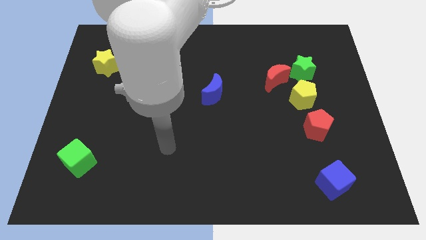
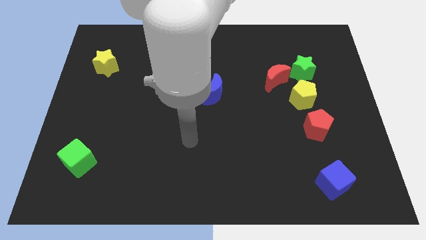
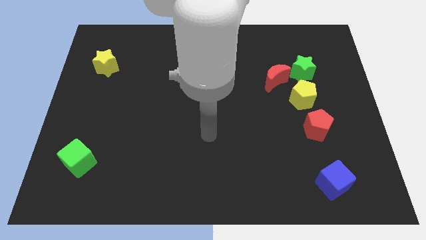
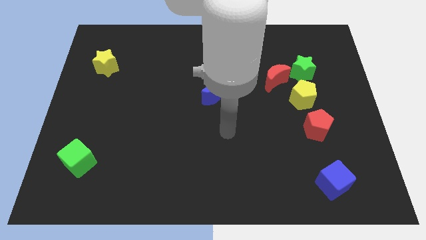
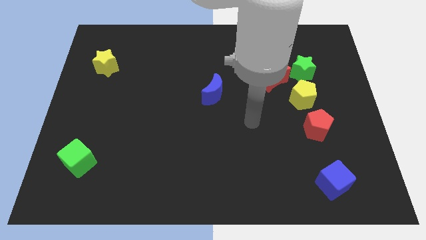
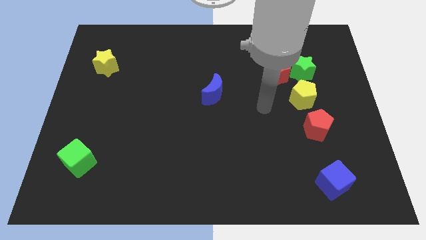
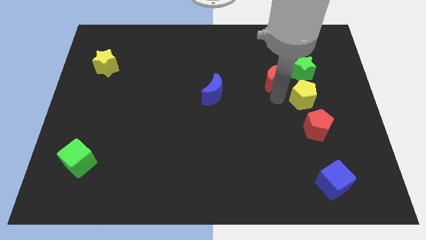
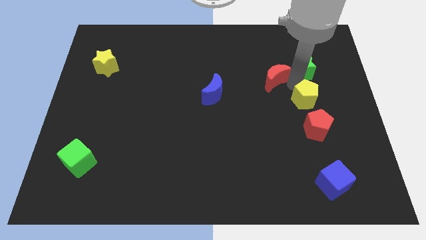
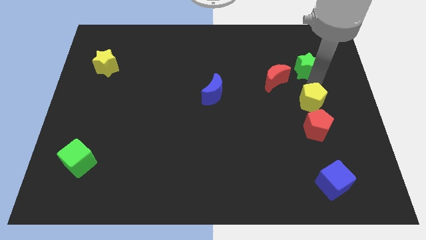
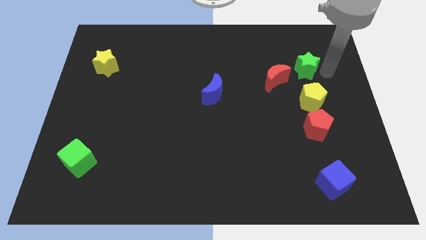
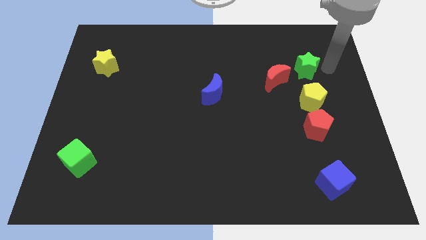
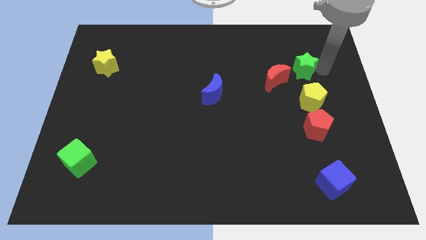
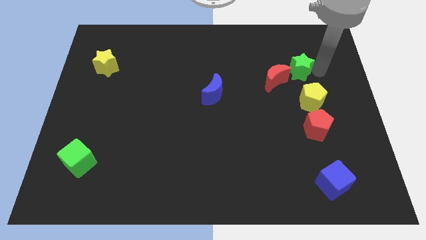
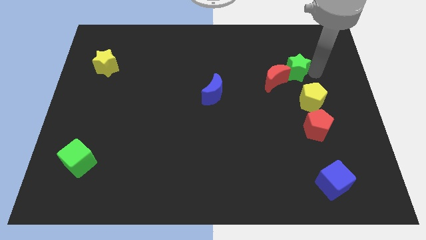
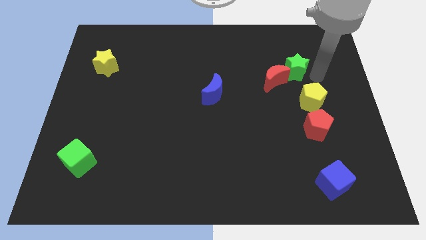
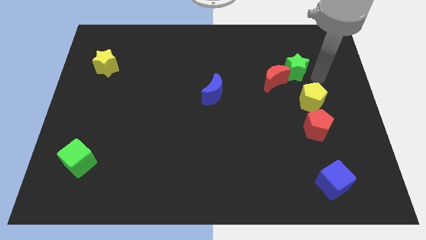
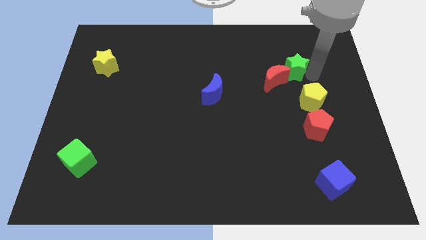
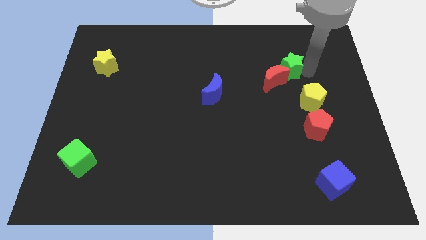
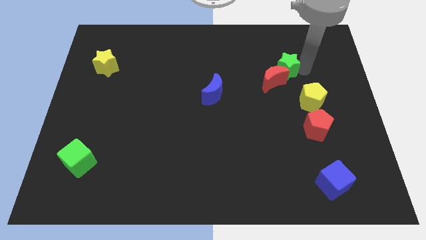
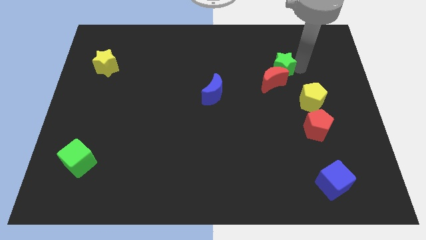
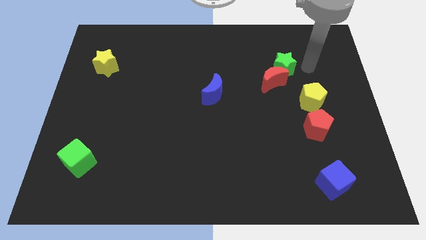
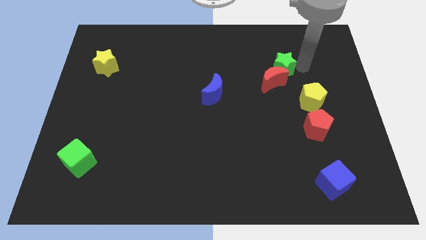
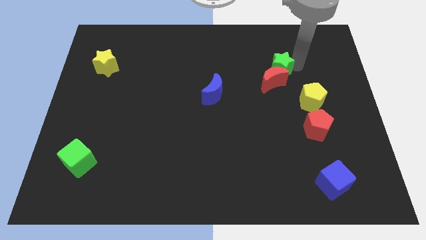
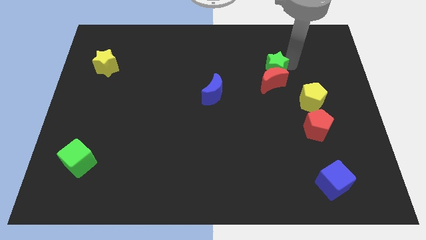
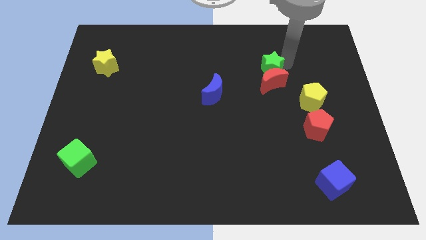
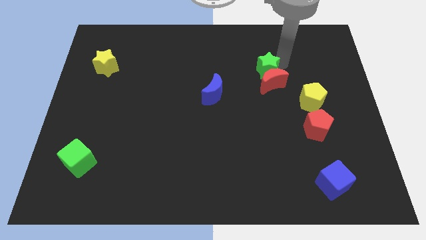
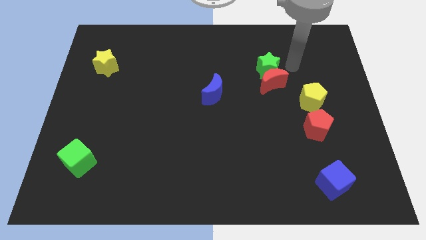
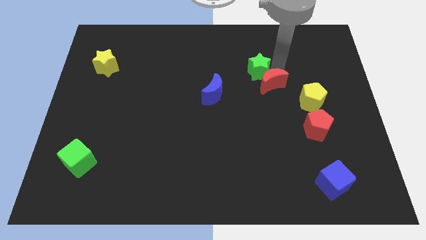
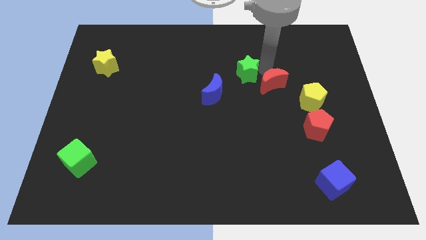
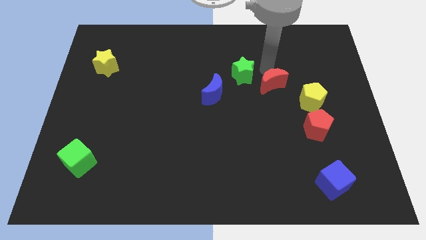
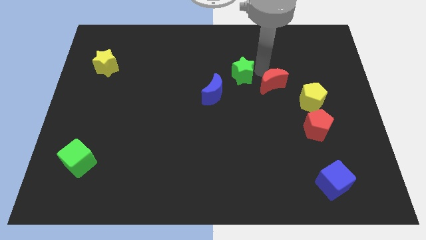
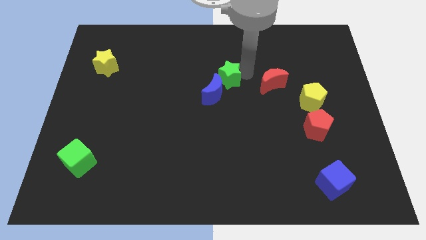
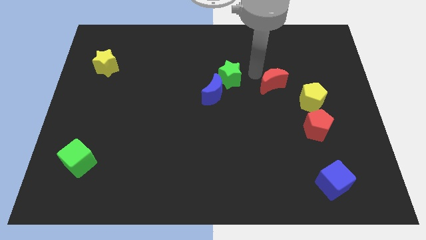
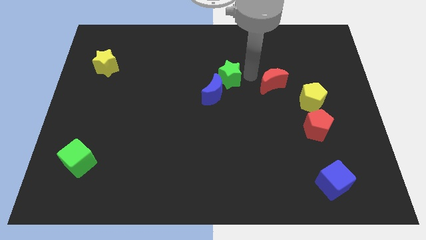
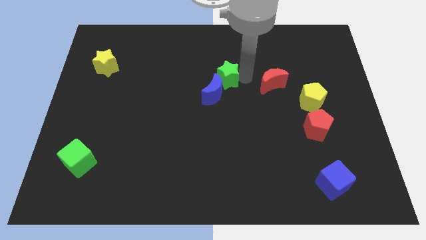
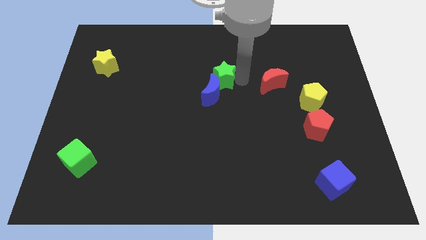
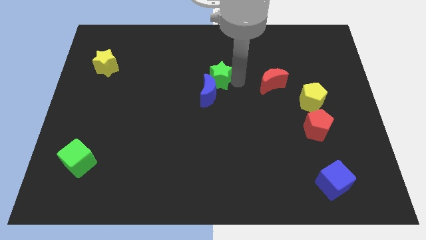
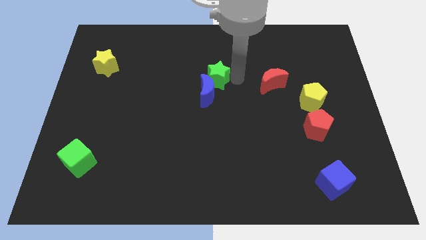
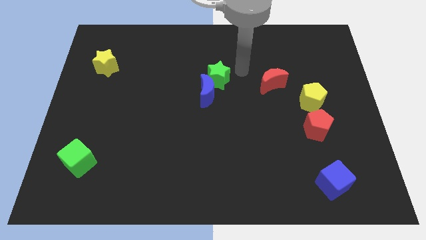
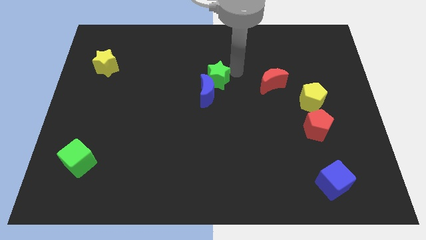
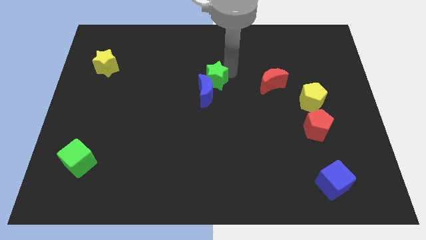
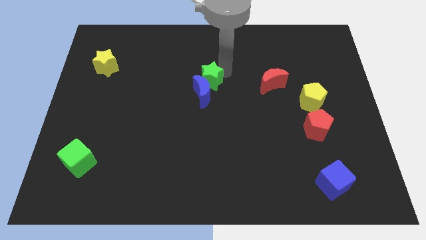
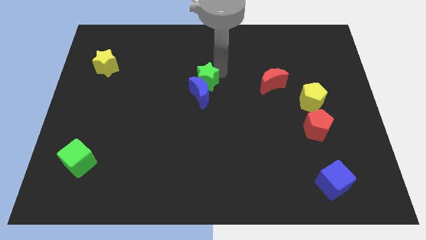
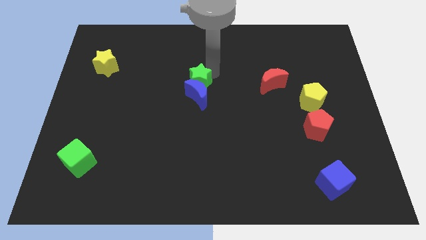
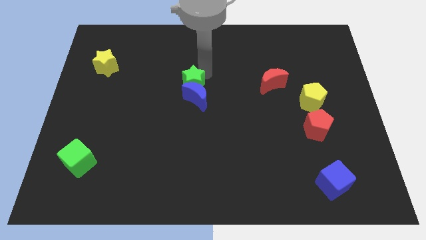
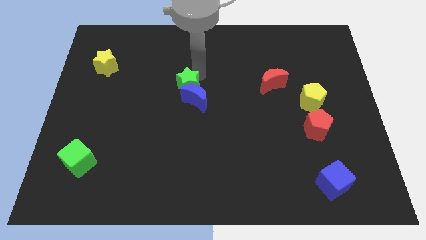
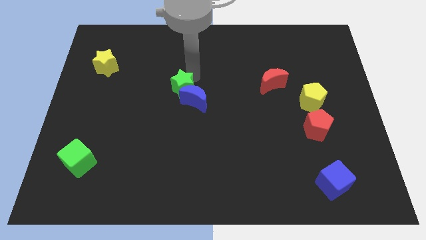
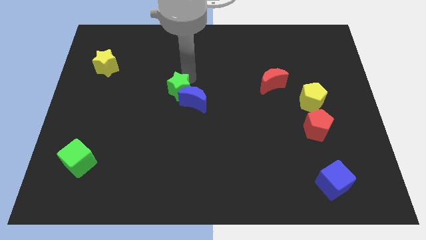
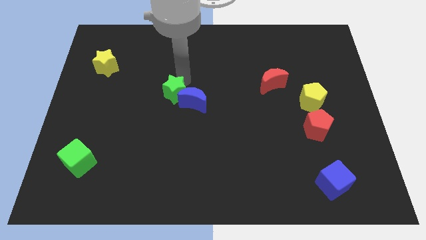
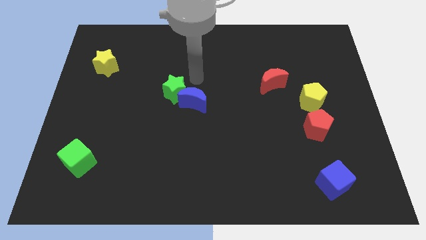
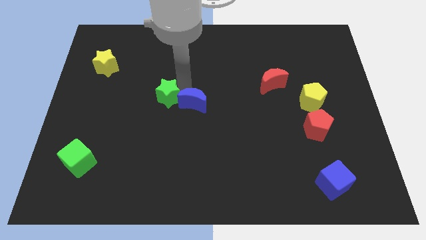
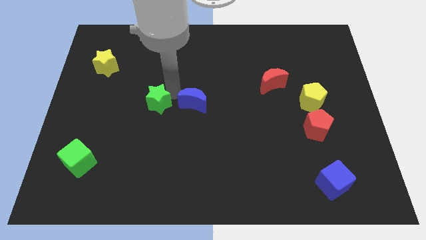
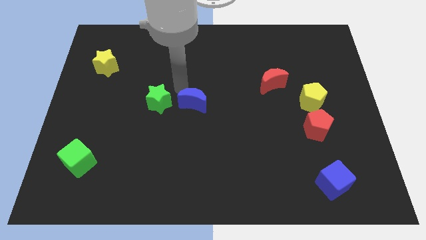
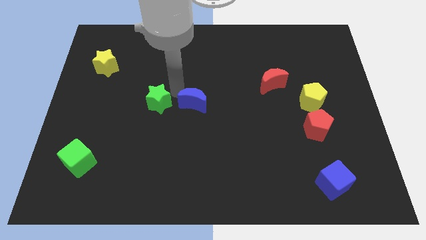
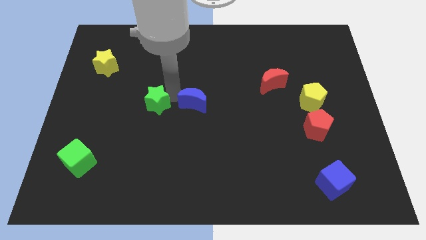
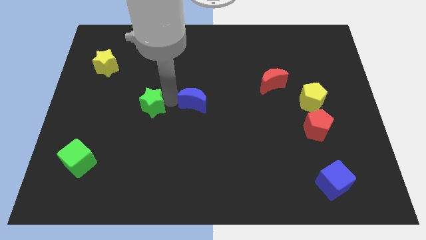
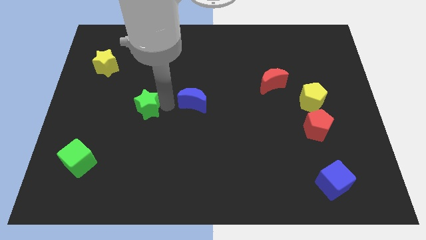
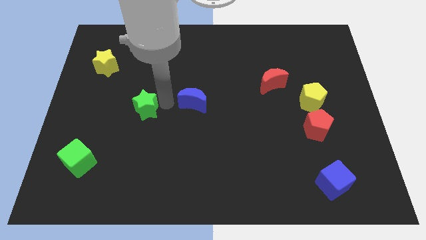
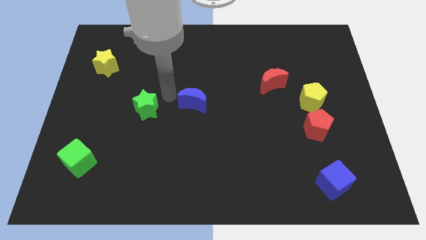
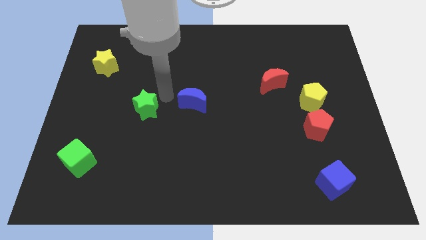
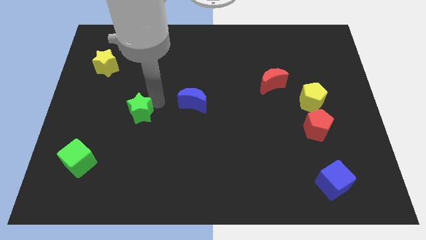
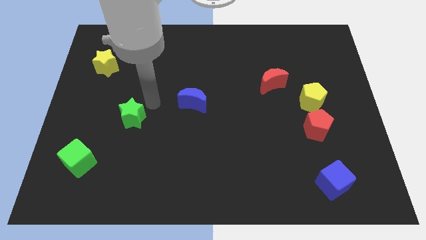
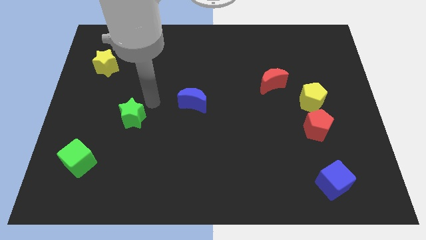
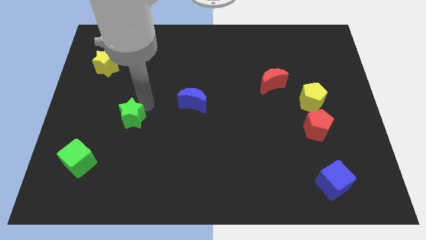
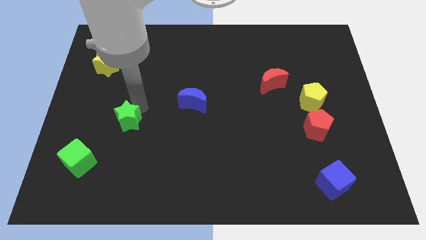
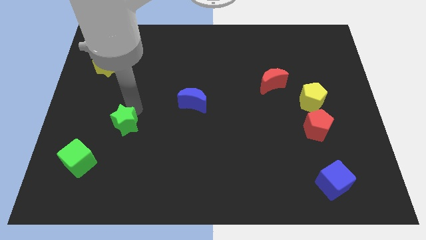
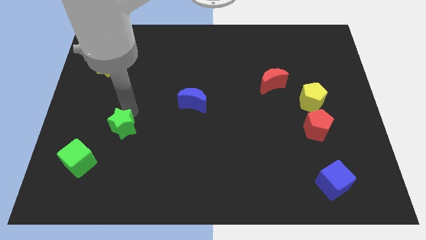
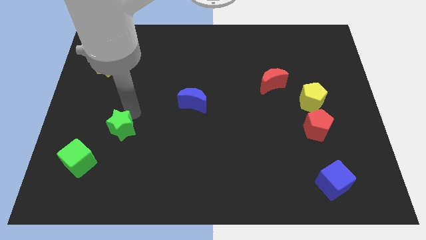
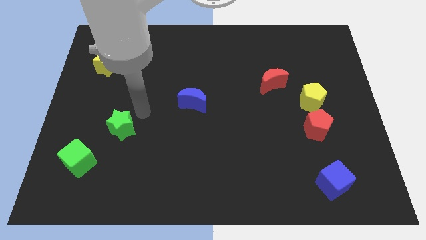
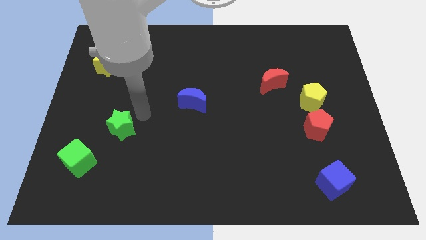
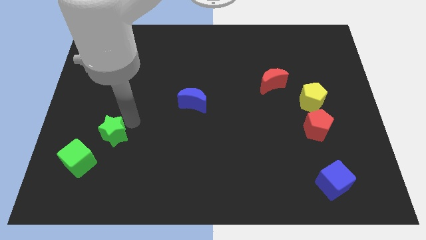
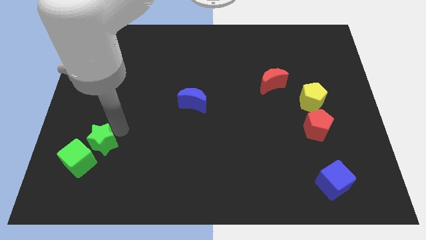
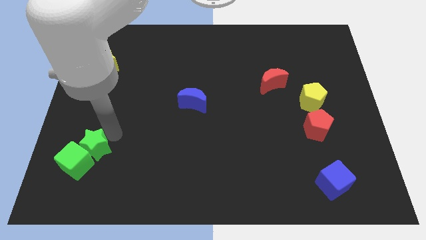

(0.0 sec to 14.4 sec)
move the green star towards the green cube
